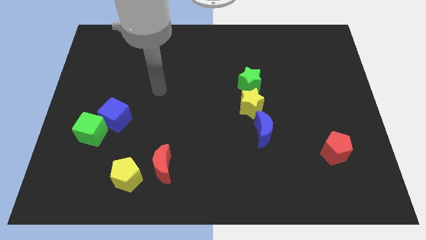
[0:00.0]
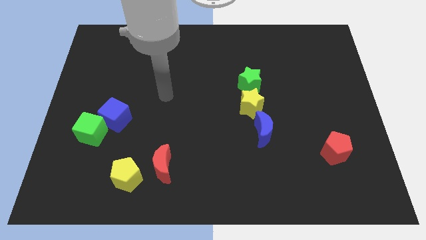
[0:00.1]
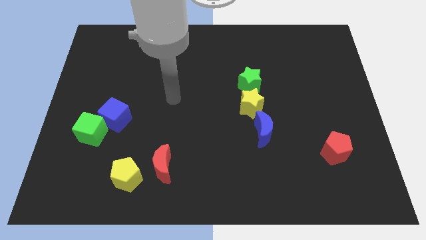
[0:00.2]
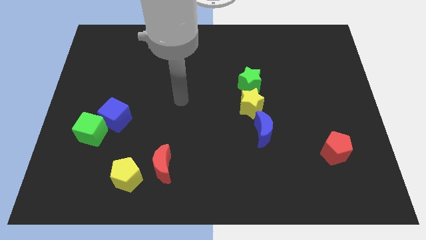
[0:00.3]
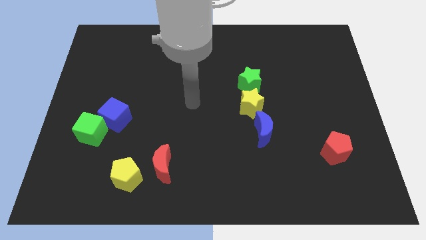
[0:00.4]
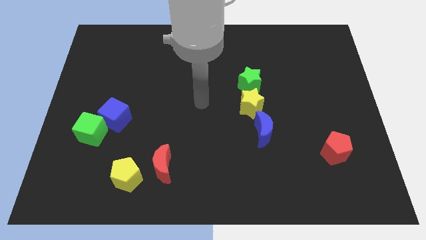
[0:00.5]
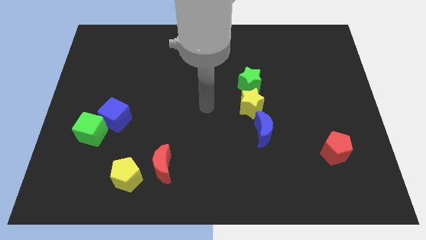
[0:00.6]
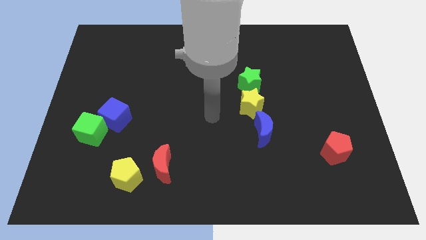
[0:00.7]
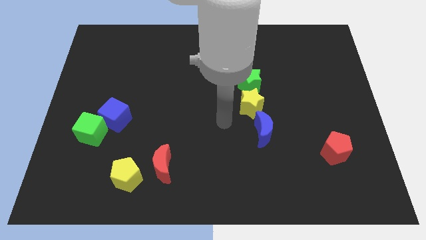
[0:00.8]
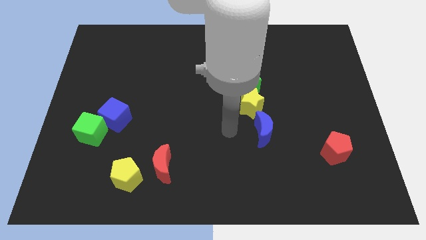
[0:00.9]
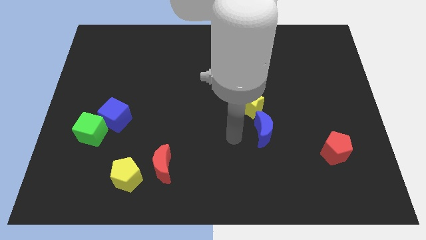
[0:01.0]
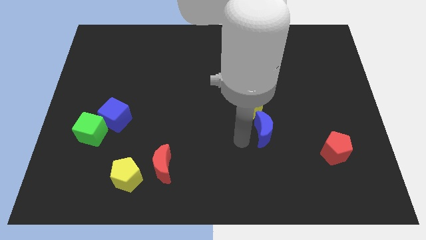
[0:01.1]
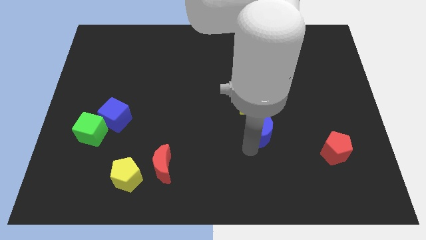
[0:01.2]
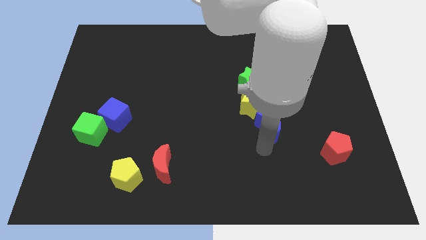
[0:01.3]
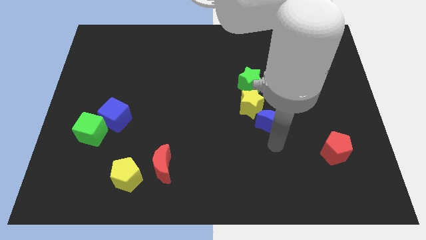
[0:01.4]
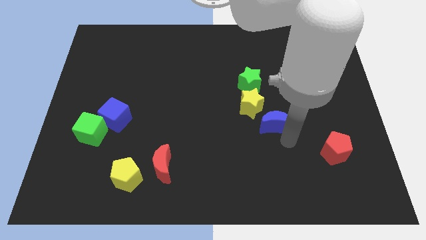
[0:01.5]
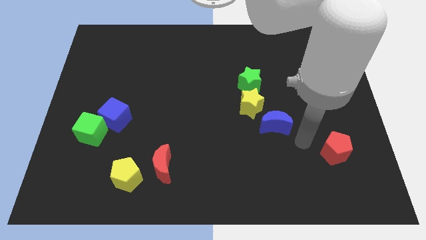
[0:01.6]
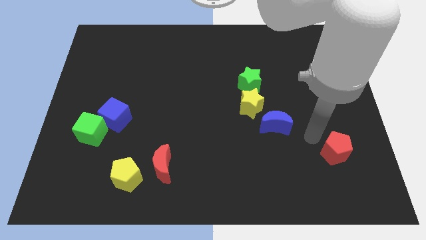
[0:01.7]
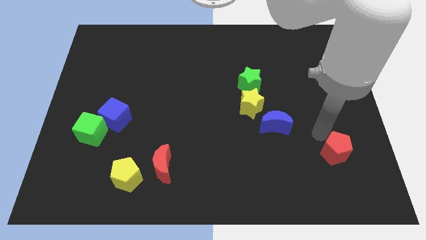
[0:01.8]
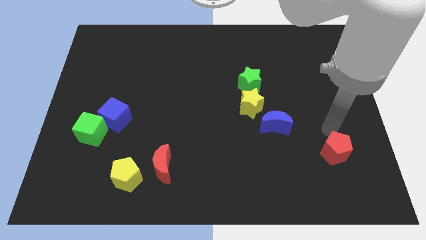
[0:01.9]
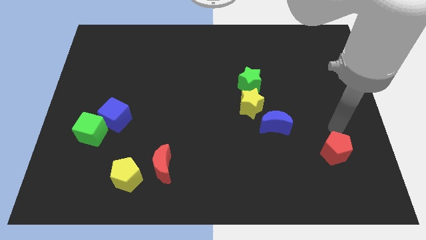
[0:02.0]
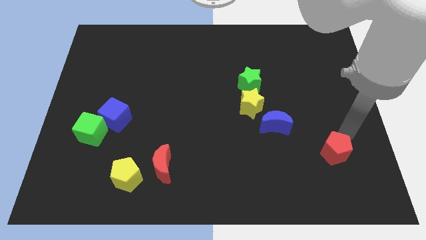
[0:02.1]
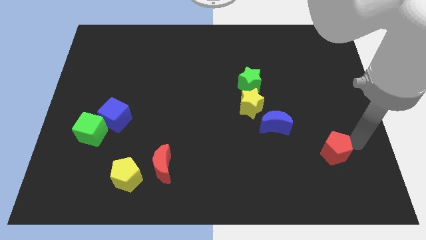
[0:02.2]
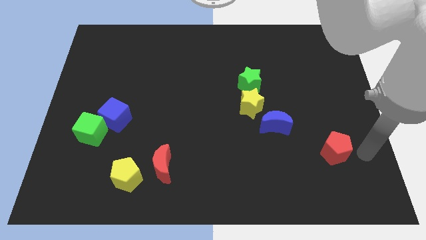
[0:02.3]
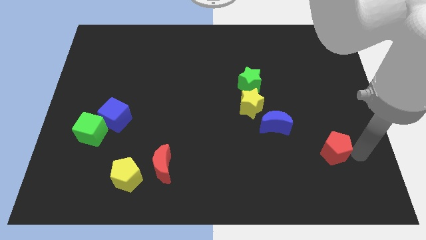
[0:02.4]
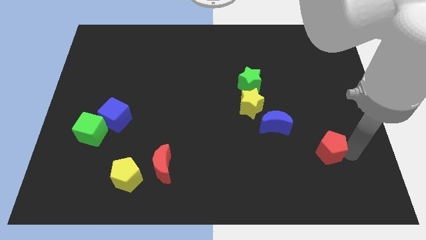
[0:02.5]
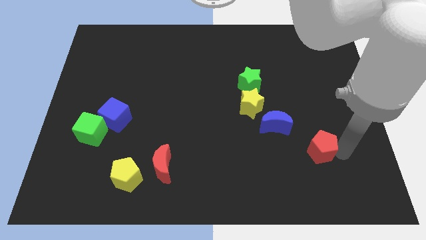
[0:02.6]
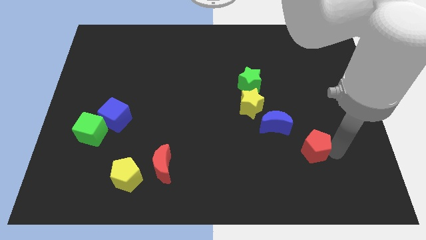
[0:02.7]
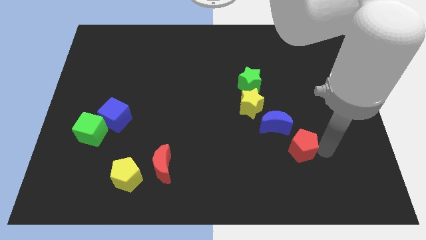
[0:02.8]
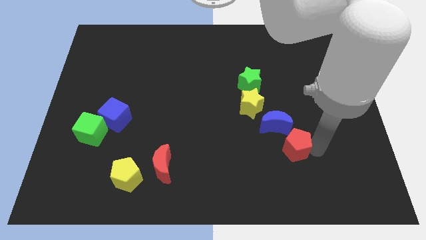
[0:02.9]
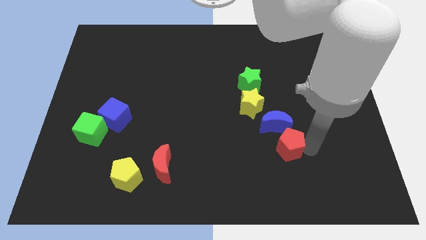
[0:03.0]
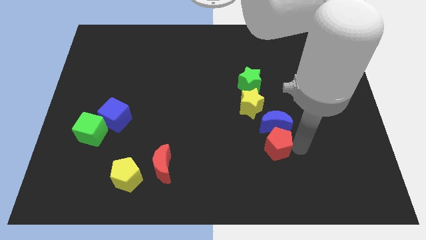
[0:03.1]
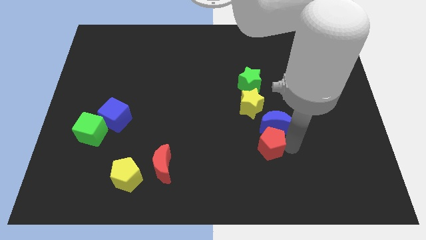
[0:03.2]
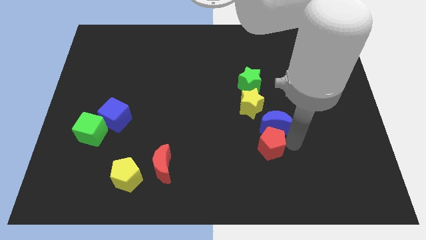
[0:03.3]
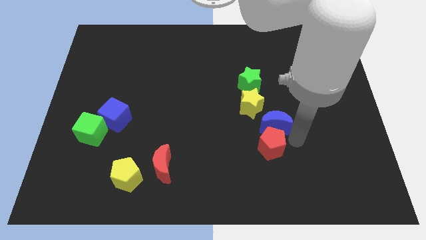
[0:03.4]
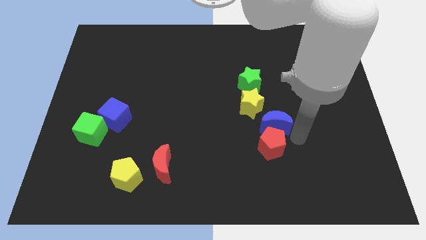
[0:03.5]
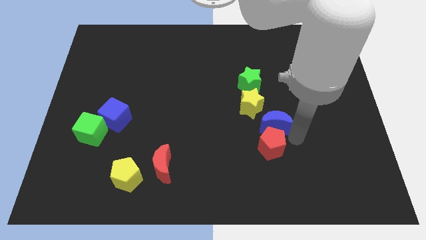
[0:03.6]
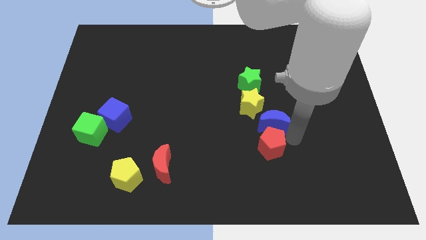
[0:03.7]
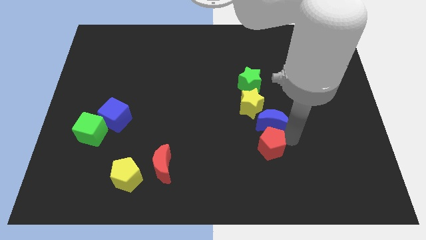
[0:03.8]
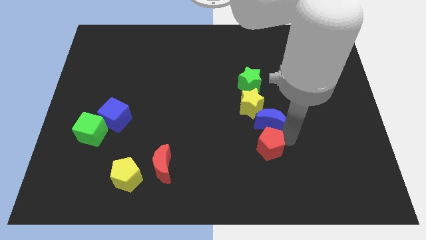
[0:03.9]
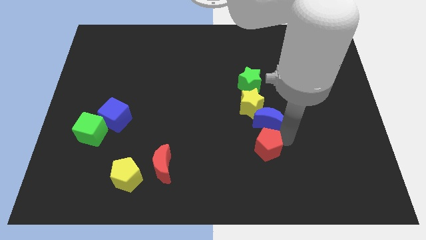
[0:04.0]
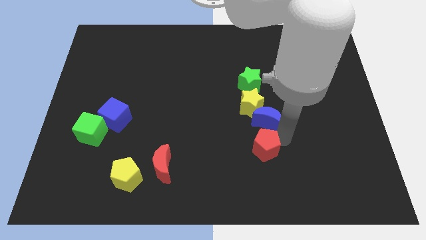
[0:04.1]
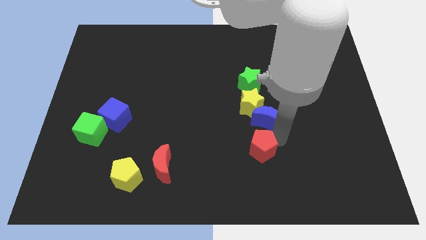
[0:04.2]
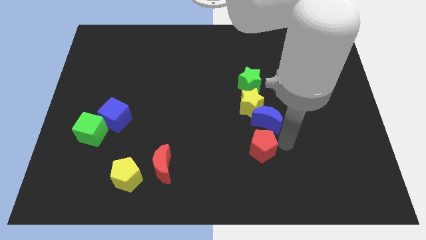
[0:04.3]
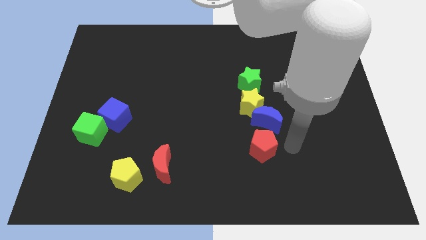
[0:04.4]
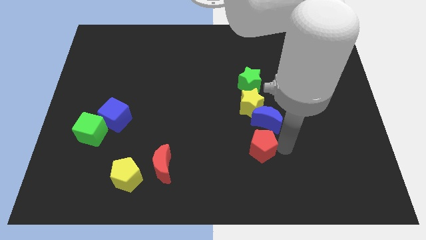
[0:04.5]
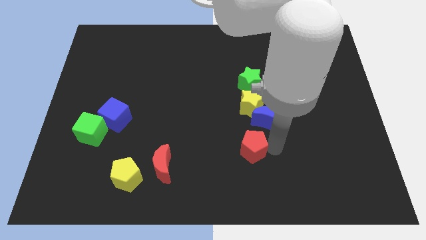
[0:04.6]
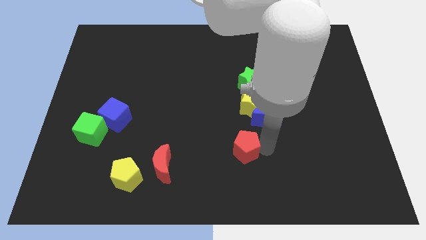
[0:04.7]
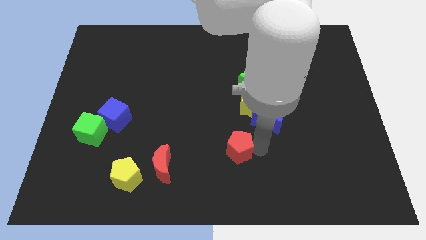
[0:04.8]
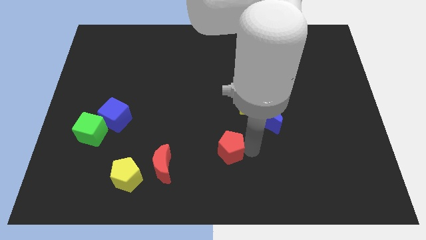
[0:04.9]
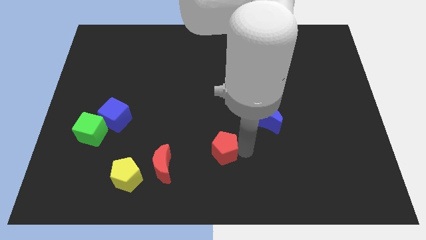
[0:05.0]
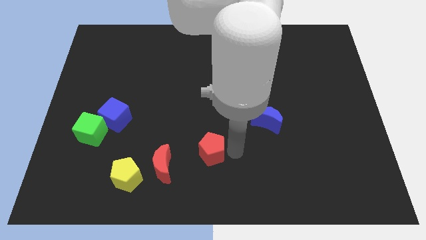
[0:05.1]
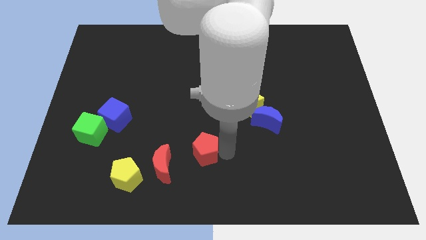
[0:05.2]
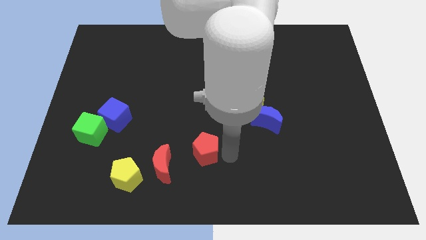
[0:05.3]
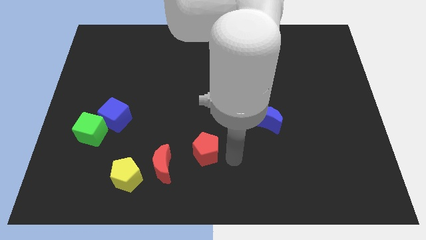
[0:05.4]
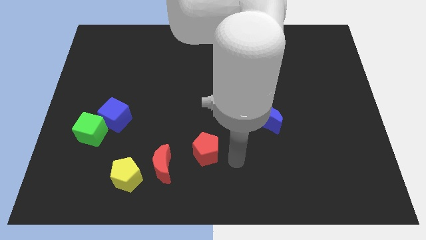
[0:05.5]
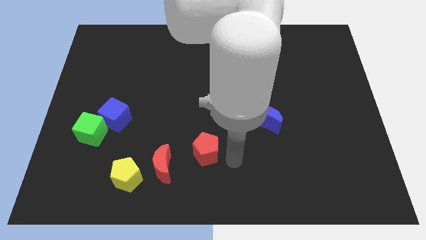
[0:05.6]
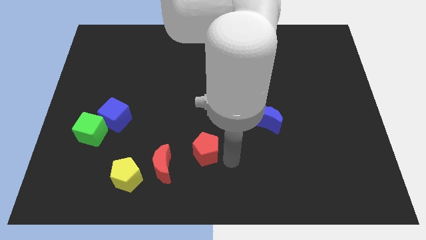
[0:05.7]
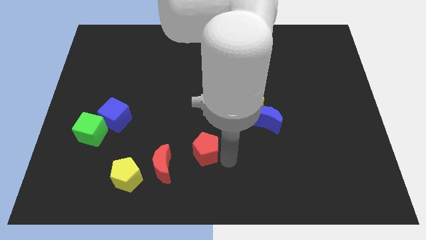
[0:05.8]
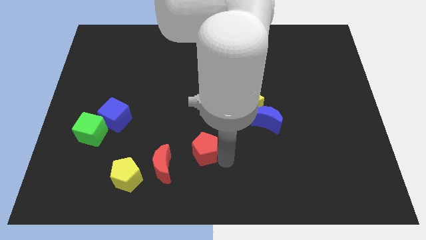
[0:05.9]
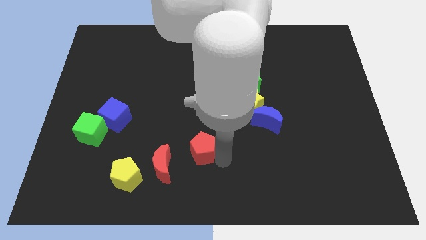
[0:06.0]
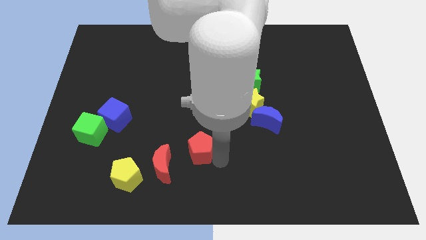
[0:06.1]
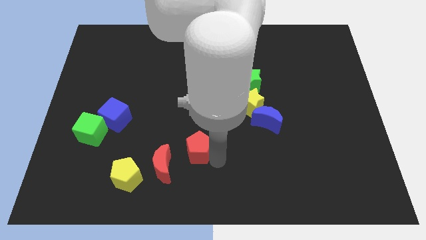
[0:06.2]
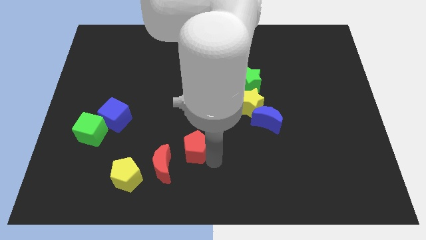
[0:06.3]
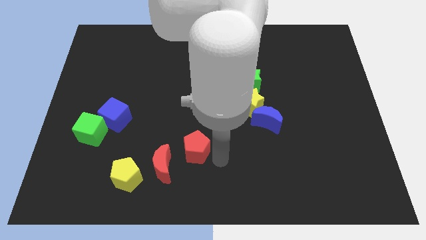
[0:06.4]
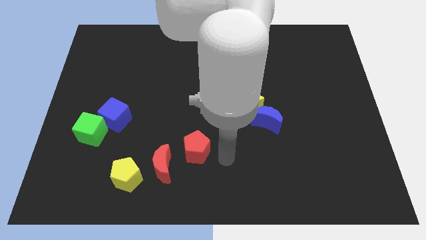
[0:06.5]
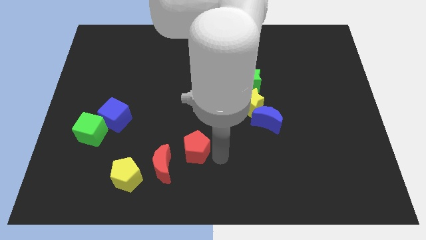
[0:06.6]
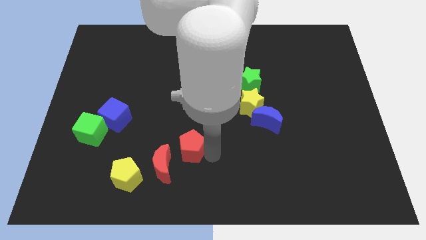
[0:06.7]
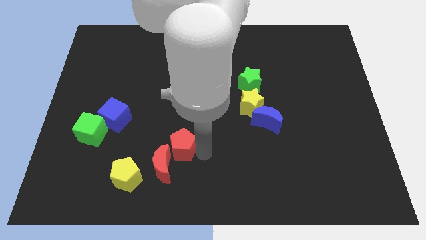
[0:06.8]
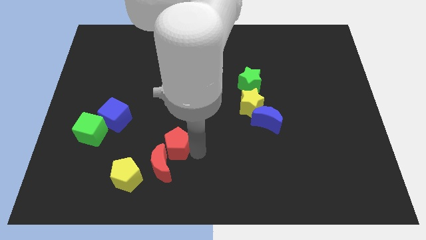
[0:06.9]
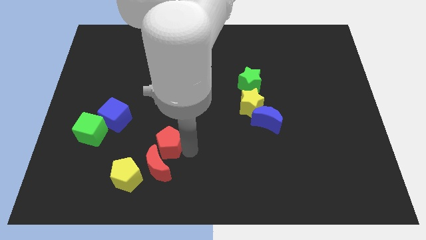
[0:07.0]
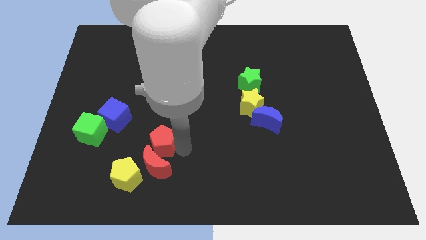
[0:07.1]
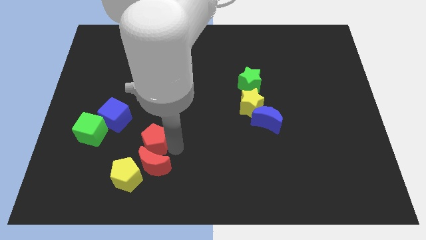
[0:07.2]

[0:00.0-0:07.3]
push the red pentagon diagonally down and to the right of the blue cube

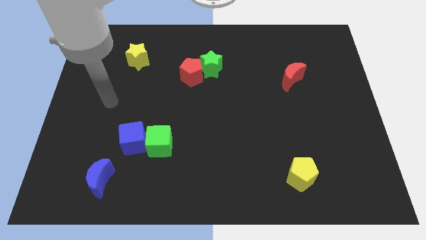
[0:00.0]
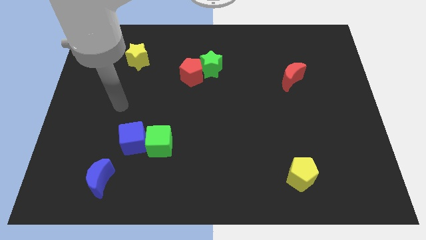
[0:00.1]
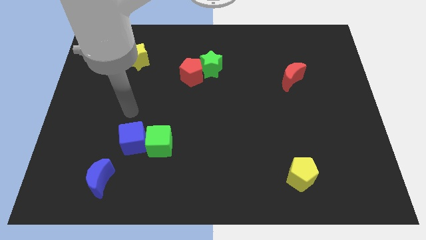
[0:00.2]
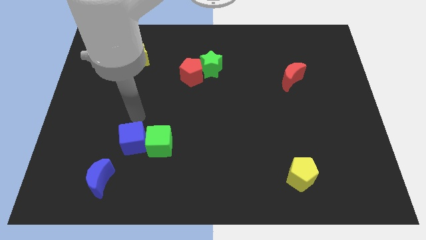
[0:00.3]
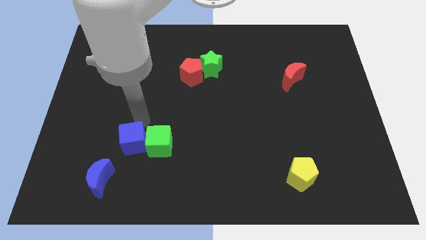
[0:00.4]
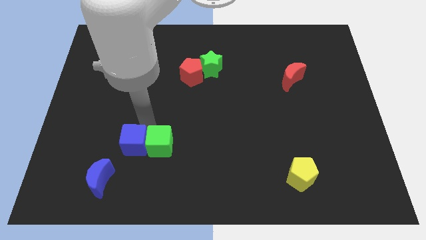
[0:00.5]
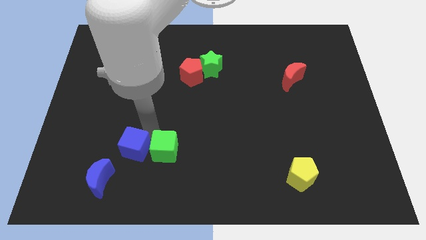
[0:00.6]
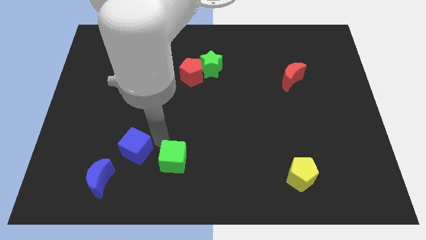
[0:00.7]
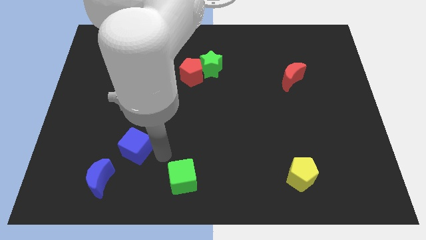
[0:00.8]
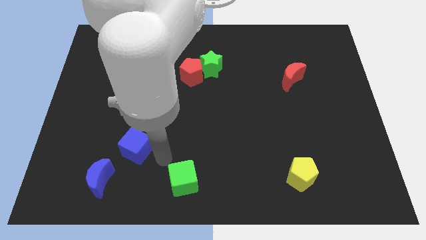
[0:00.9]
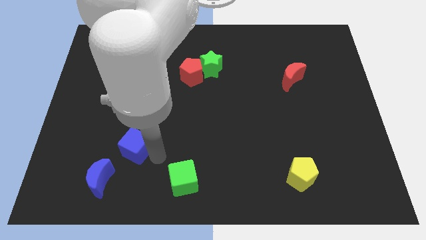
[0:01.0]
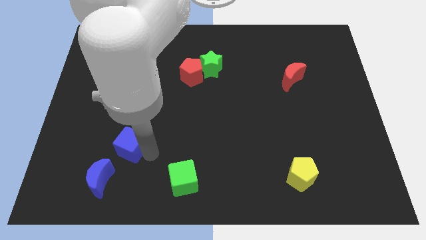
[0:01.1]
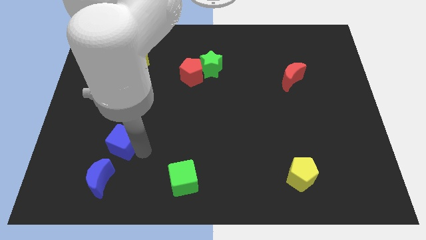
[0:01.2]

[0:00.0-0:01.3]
push the blue cube above the blue moon
